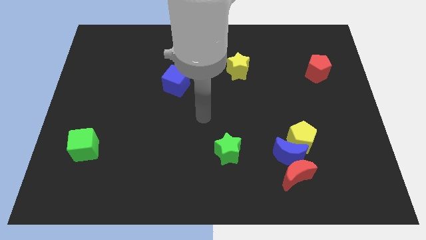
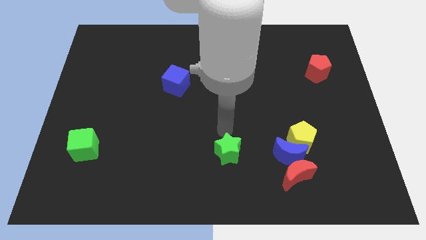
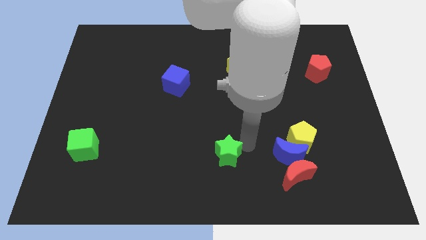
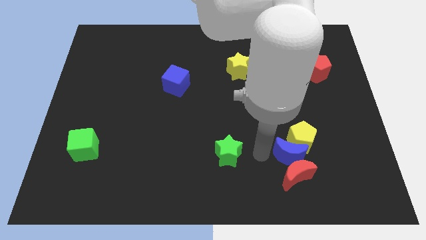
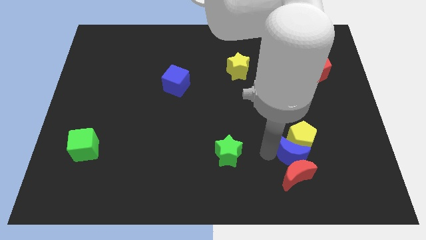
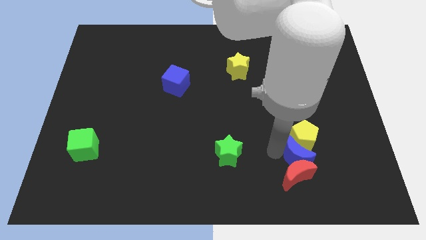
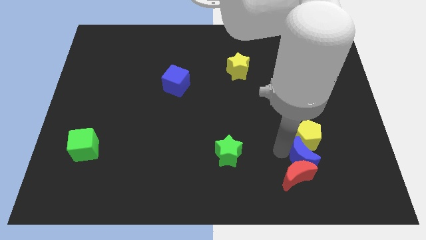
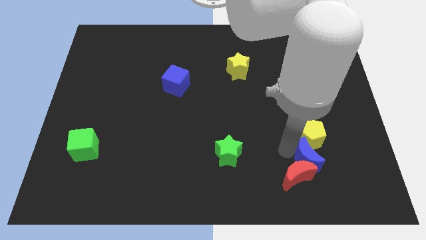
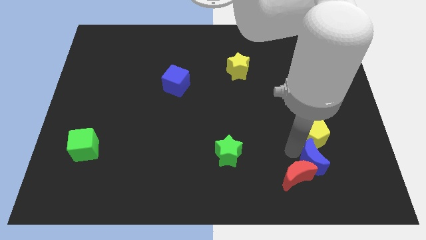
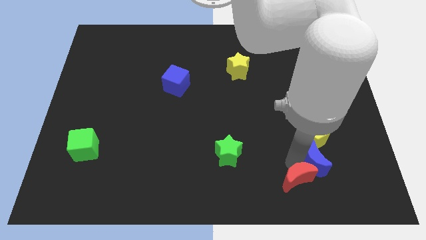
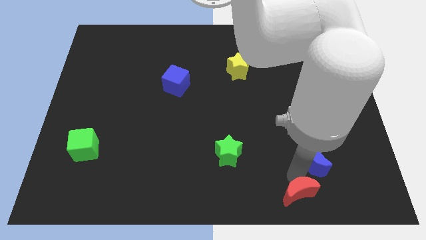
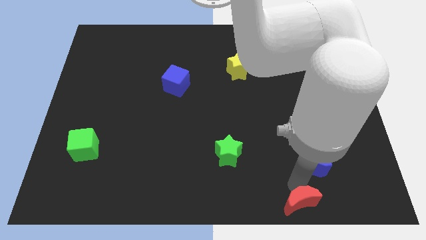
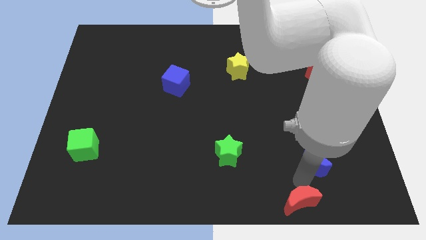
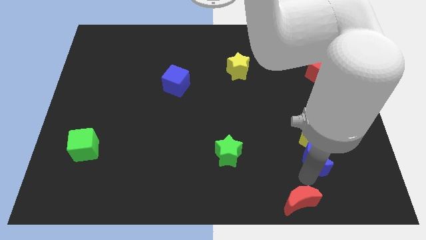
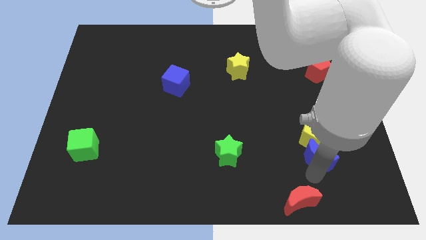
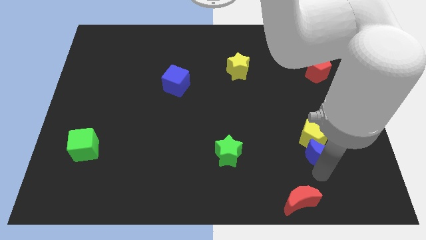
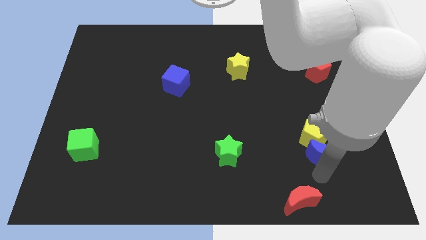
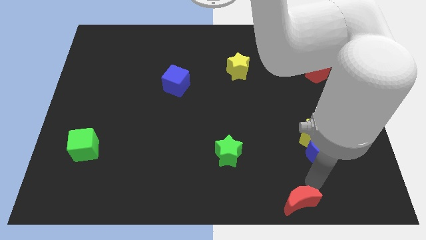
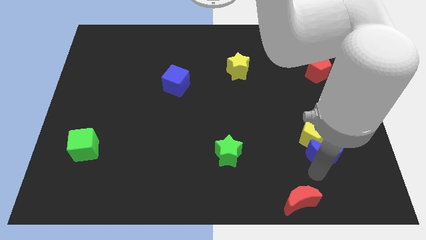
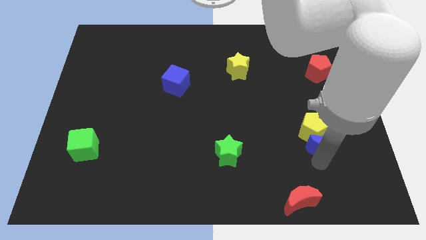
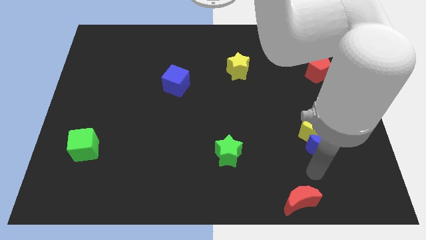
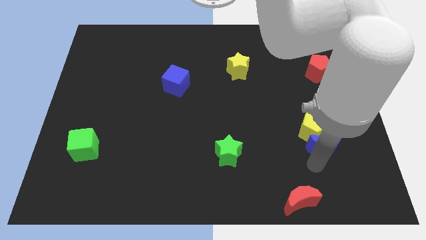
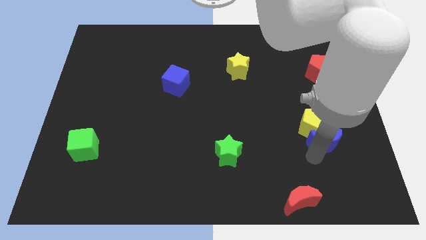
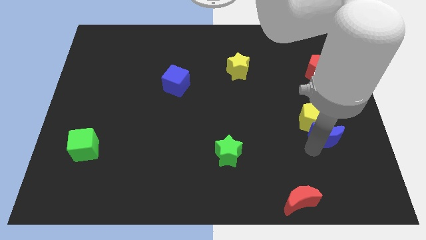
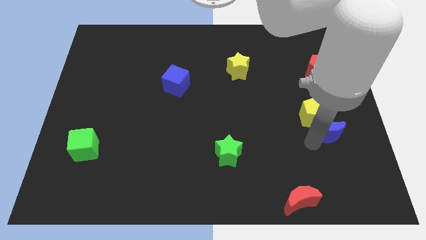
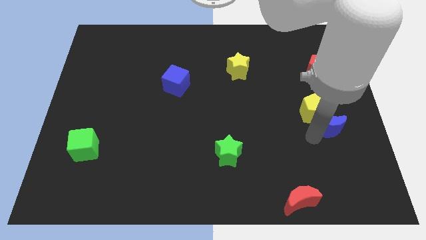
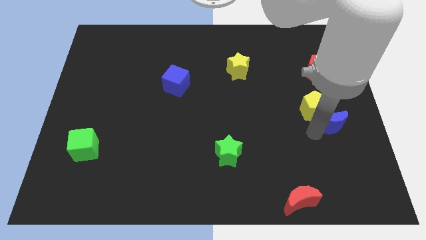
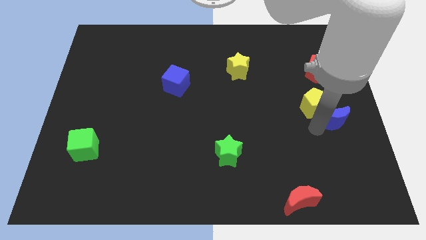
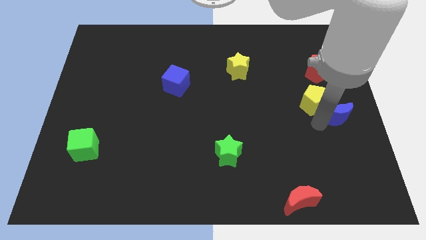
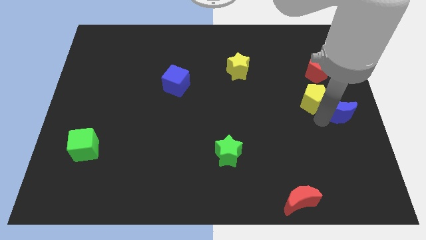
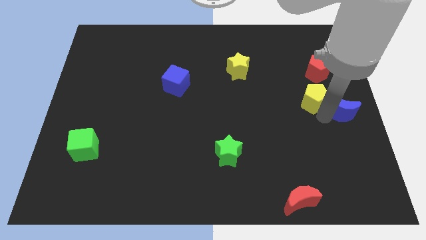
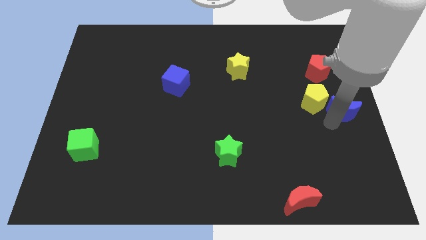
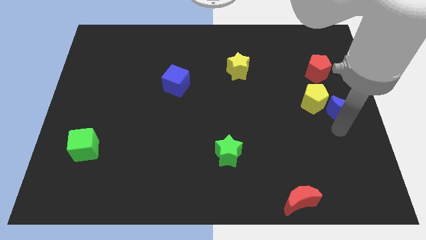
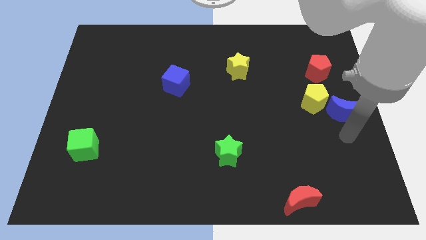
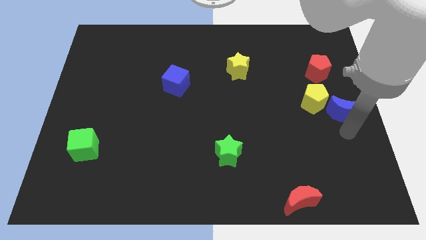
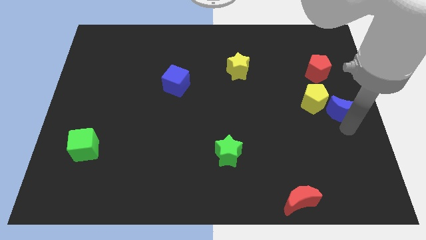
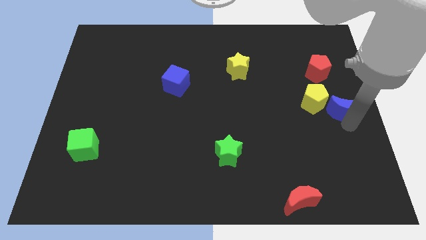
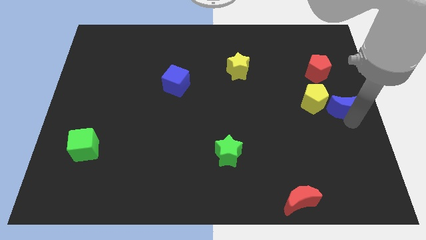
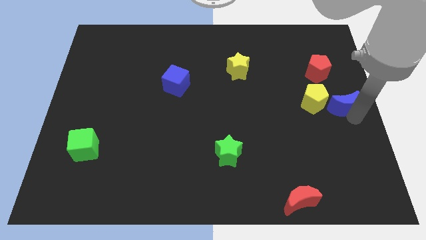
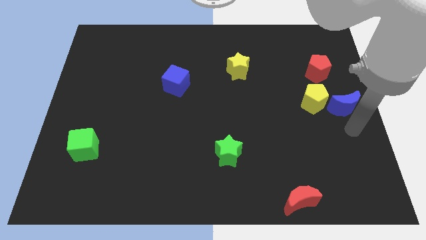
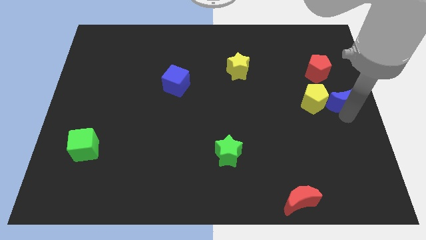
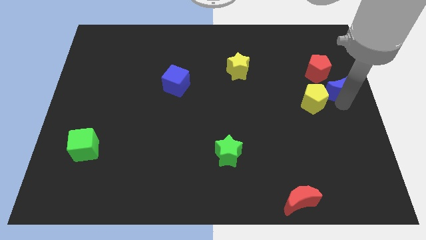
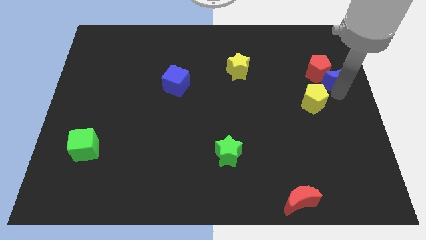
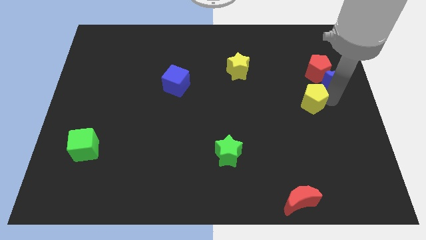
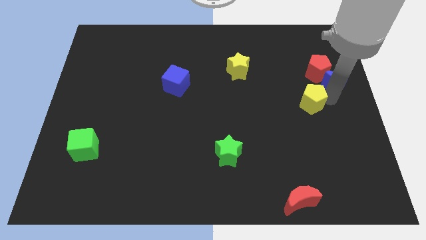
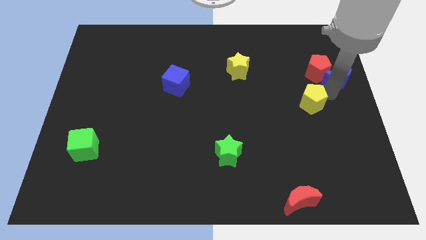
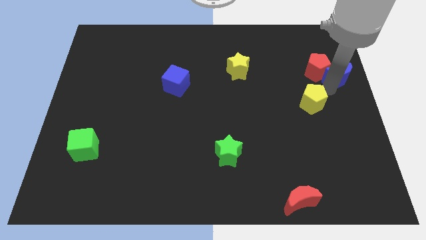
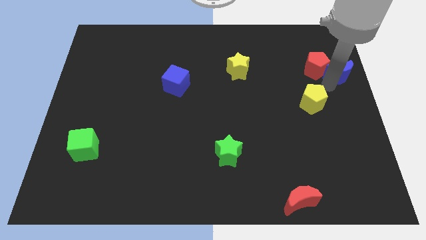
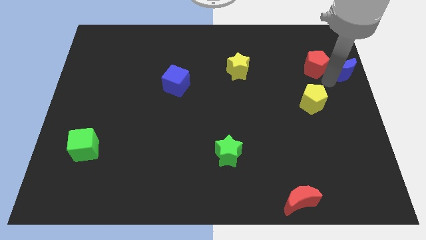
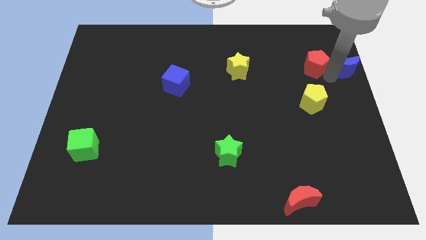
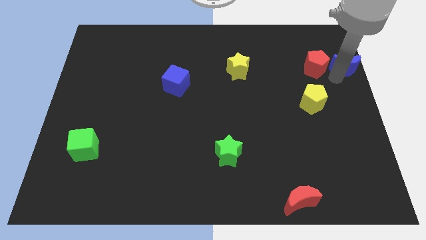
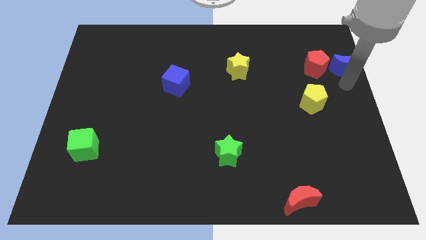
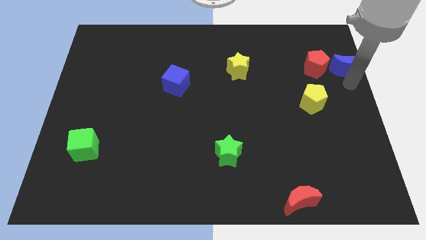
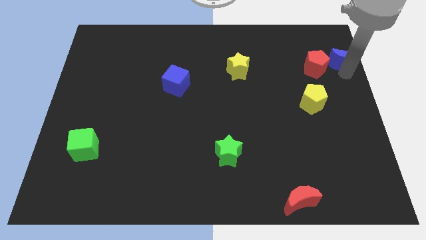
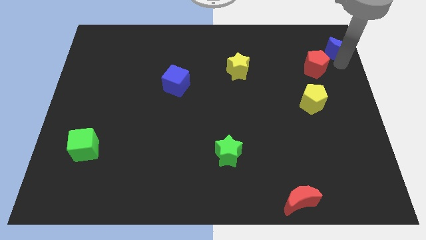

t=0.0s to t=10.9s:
move the blue moon to the top right

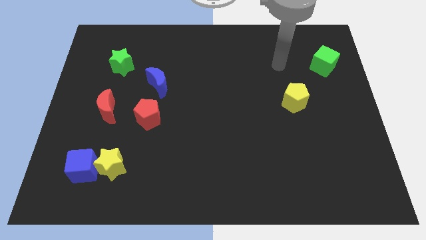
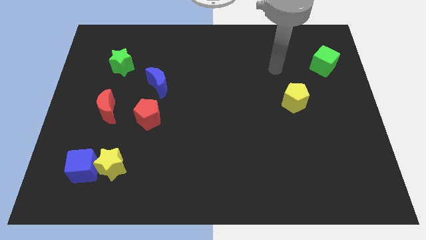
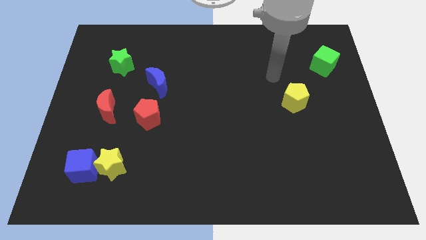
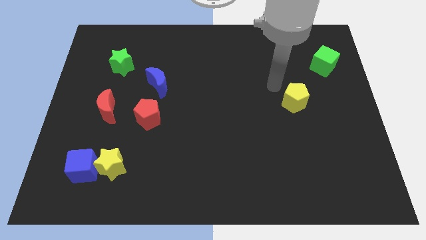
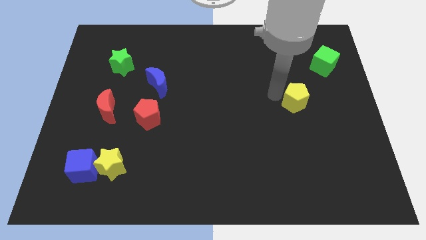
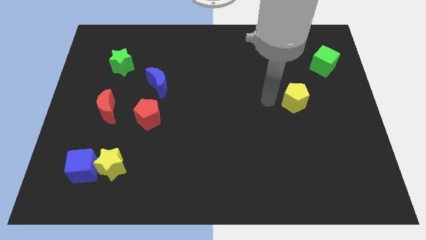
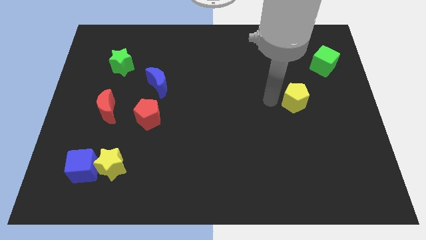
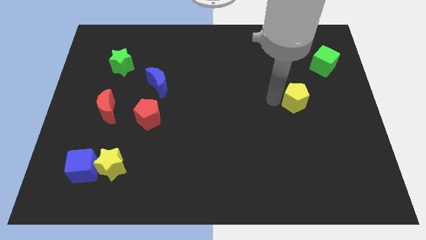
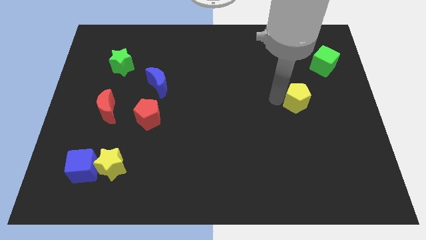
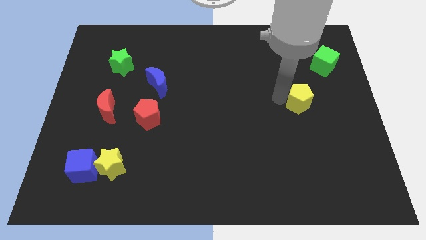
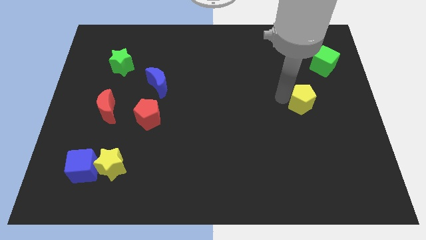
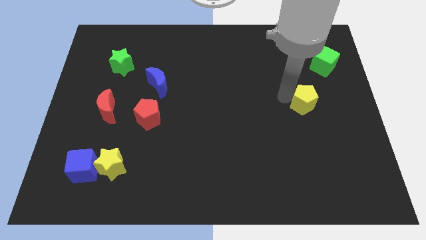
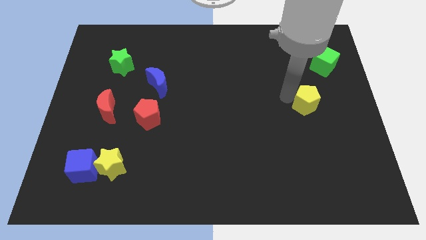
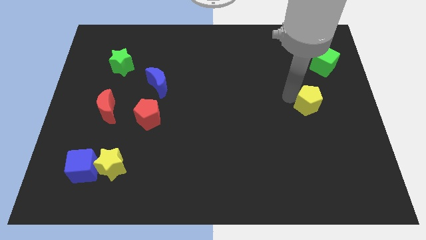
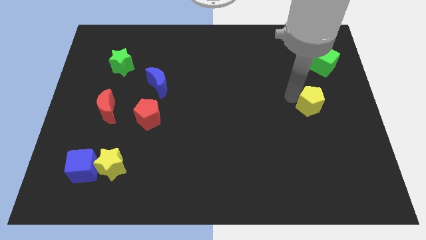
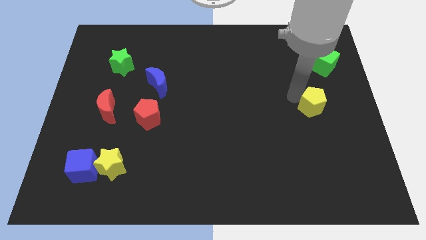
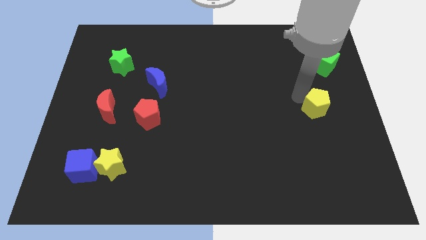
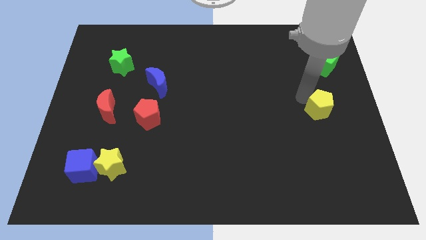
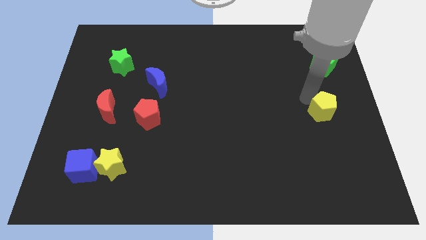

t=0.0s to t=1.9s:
put the yellow pentagon to the right side of the board
